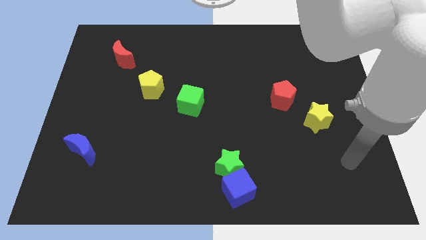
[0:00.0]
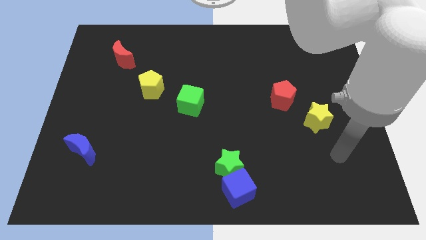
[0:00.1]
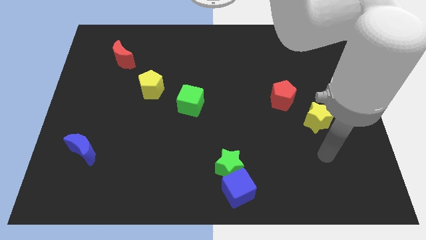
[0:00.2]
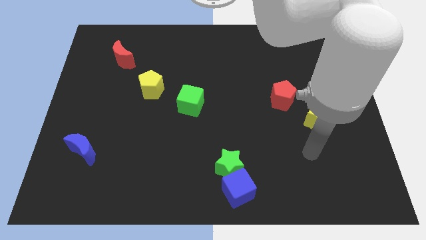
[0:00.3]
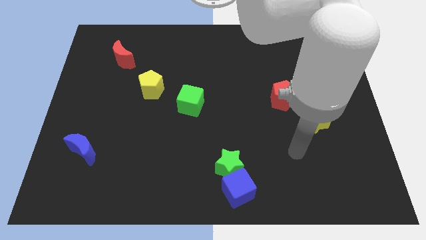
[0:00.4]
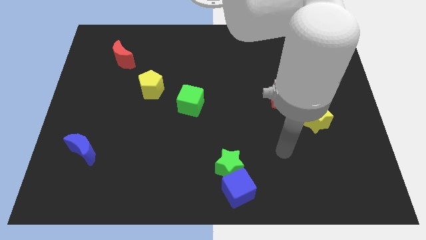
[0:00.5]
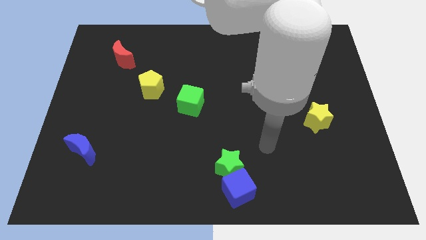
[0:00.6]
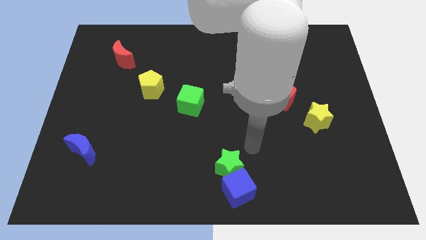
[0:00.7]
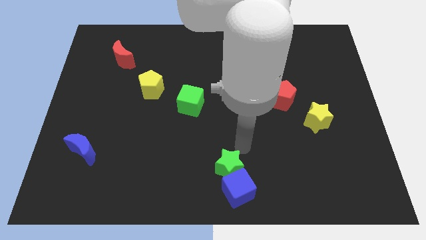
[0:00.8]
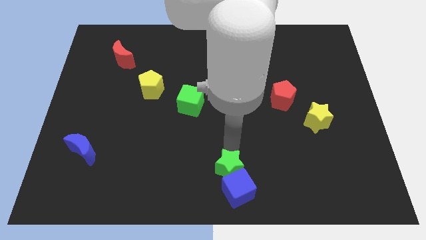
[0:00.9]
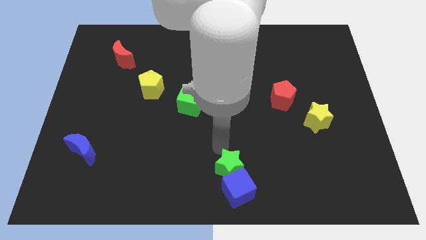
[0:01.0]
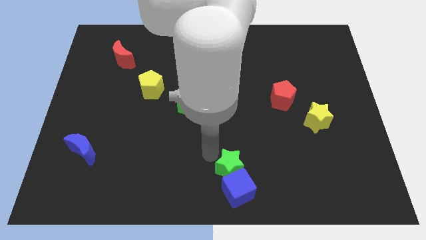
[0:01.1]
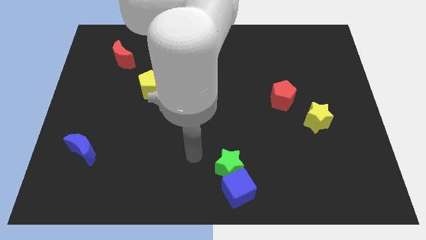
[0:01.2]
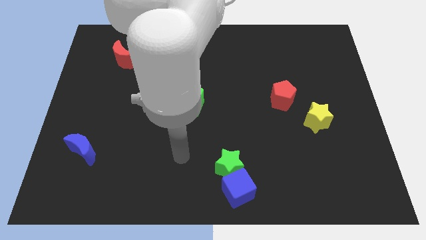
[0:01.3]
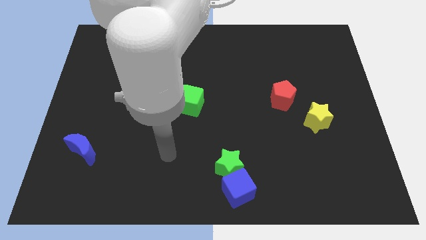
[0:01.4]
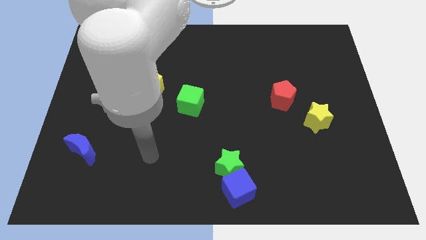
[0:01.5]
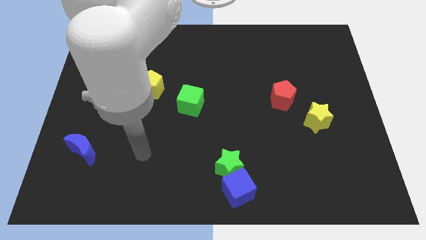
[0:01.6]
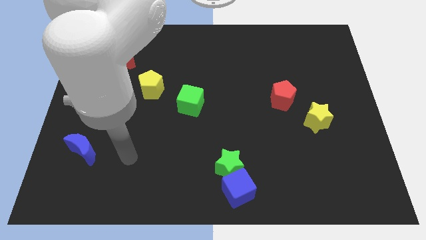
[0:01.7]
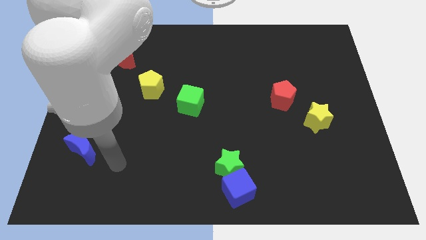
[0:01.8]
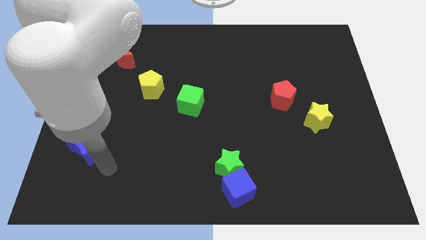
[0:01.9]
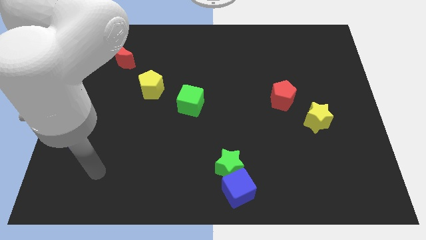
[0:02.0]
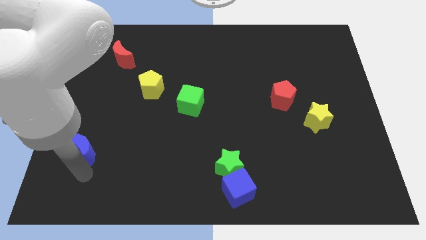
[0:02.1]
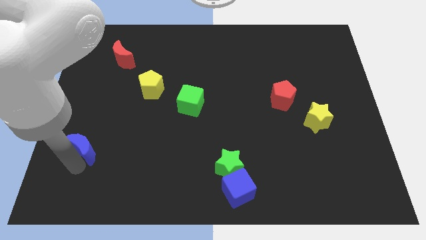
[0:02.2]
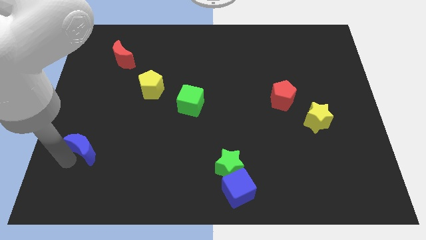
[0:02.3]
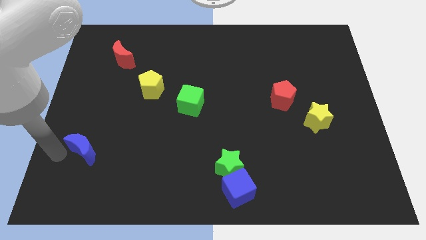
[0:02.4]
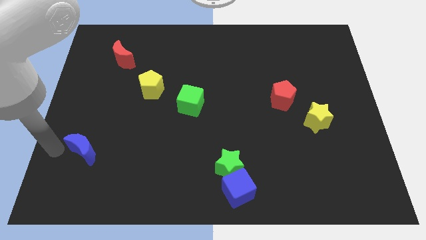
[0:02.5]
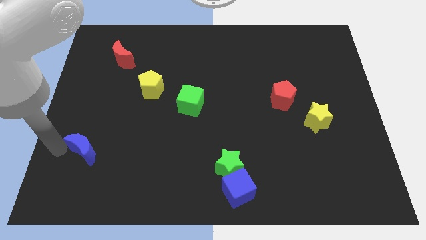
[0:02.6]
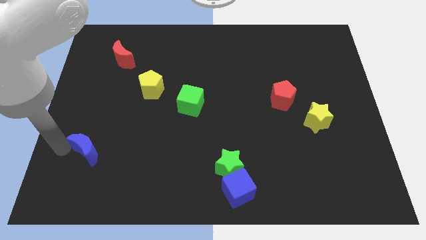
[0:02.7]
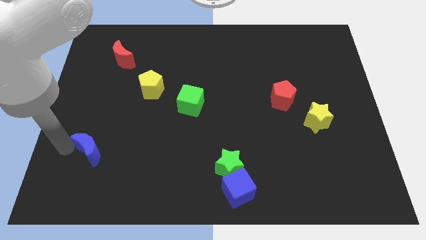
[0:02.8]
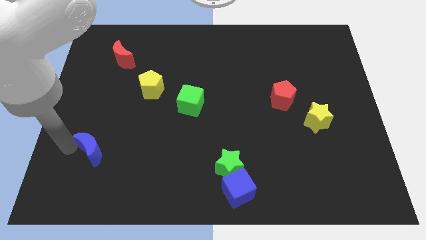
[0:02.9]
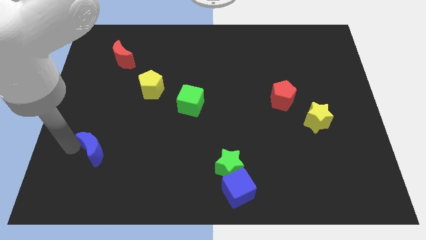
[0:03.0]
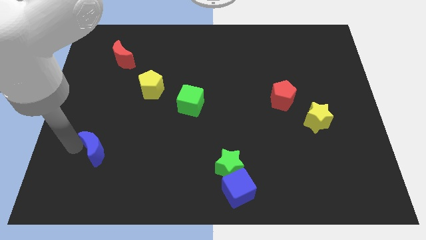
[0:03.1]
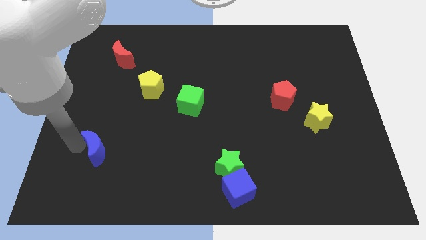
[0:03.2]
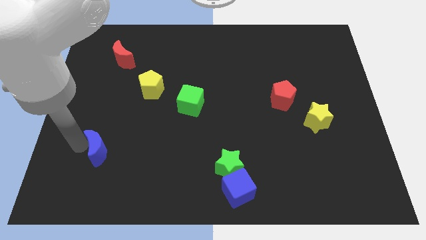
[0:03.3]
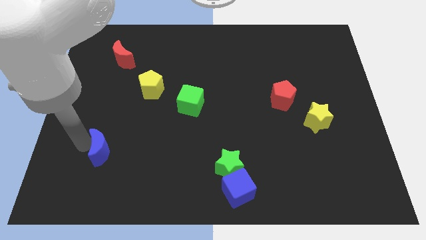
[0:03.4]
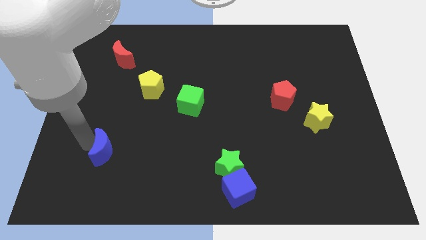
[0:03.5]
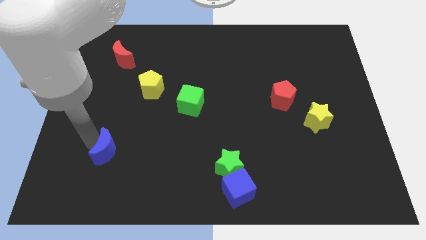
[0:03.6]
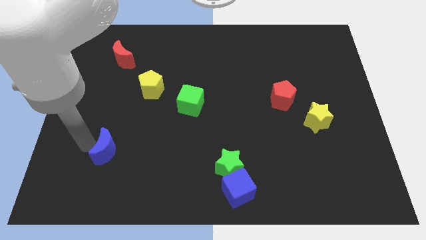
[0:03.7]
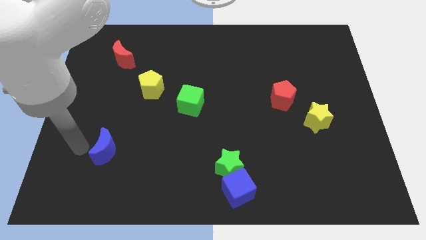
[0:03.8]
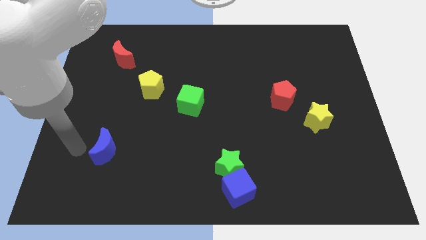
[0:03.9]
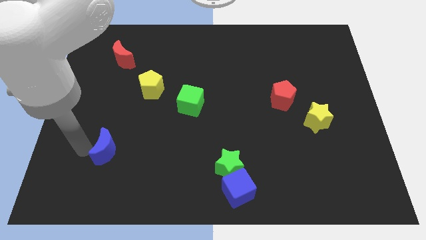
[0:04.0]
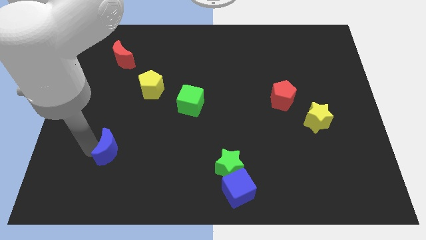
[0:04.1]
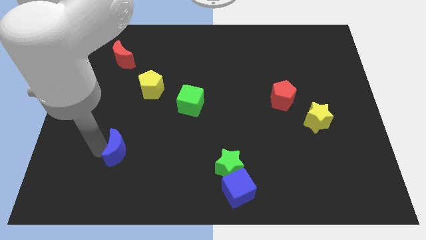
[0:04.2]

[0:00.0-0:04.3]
push the blue moon somewhat to the right

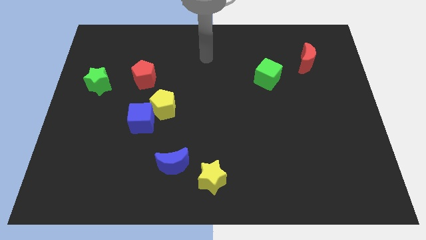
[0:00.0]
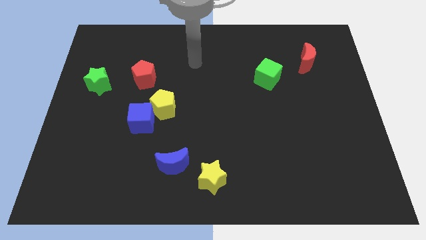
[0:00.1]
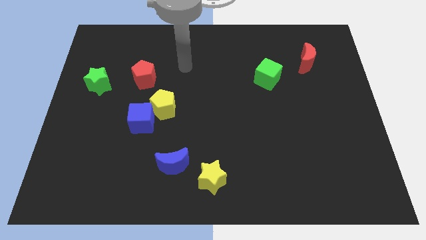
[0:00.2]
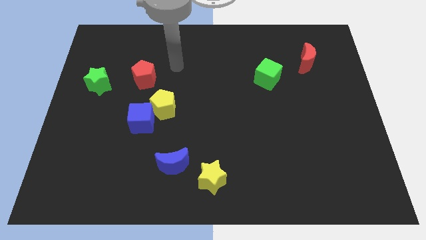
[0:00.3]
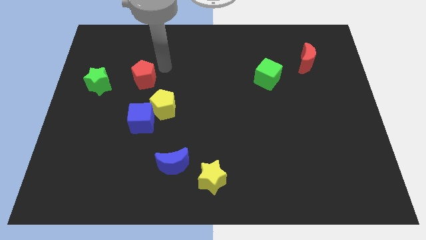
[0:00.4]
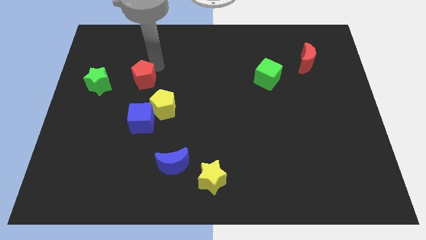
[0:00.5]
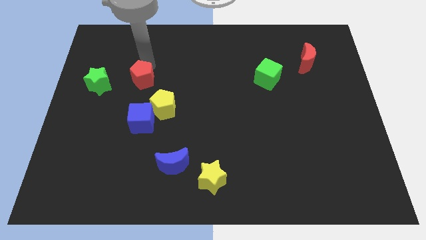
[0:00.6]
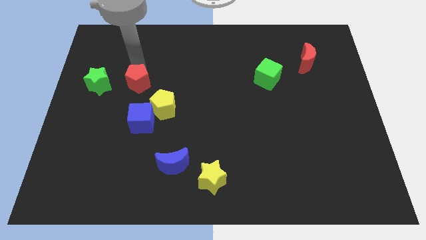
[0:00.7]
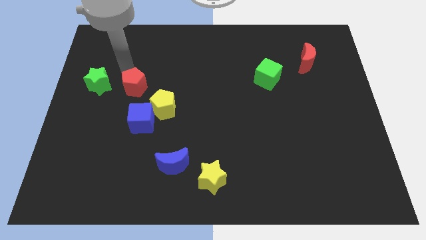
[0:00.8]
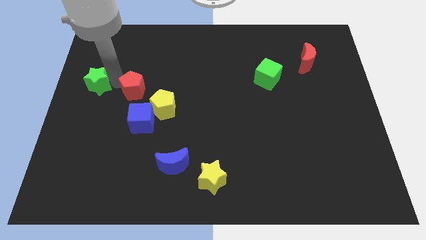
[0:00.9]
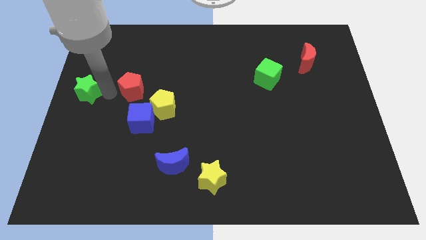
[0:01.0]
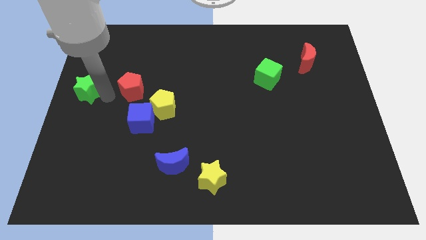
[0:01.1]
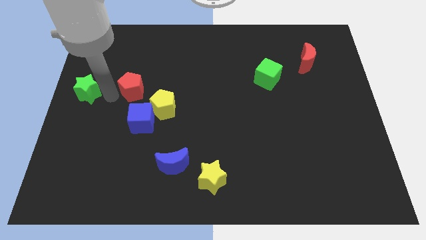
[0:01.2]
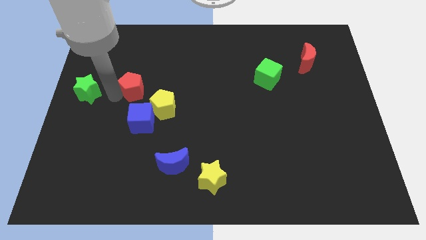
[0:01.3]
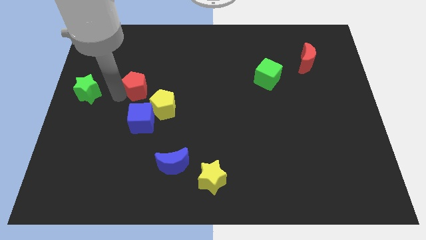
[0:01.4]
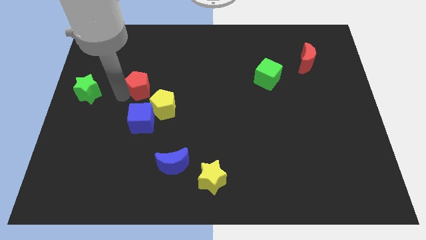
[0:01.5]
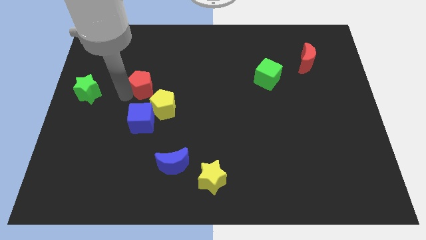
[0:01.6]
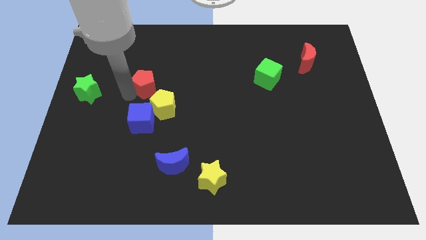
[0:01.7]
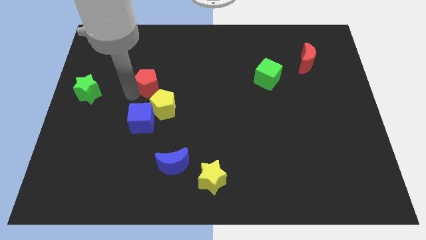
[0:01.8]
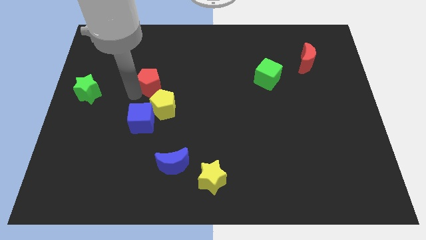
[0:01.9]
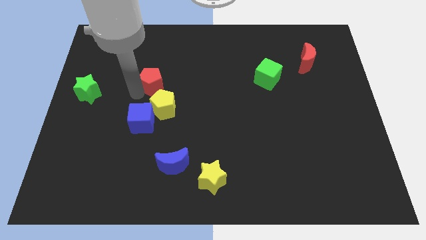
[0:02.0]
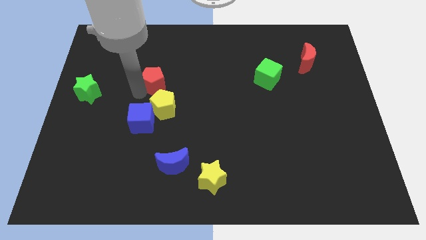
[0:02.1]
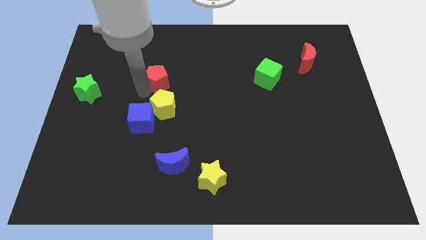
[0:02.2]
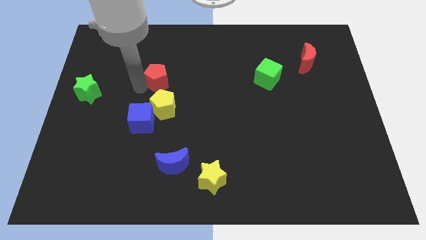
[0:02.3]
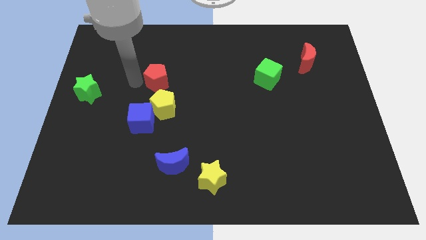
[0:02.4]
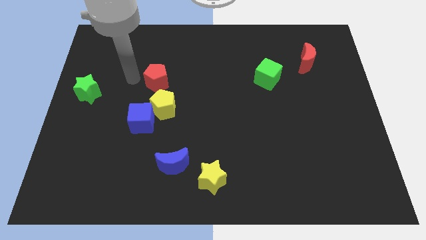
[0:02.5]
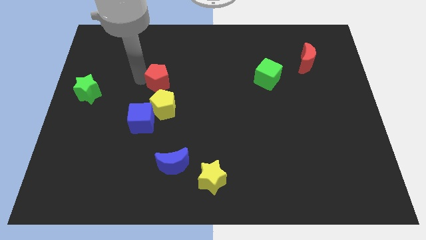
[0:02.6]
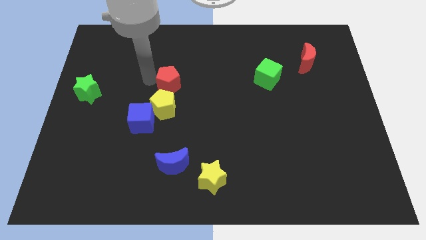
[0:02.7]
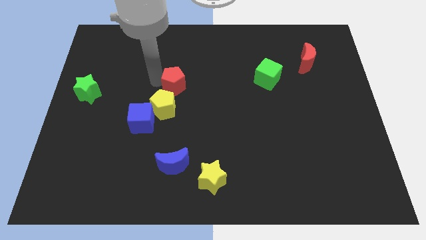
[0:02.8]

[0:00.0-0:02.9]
push the red pentagon slightly to the right

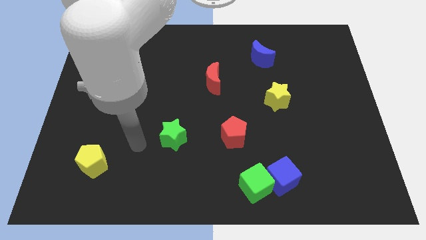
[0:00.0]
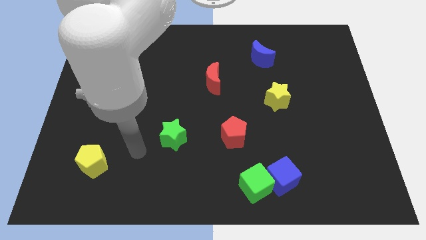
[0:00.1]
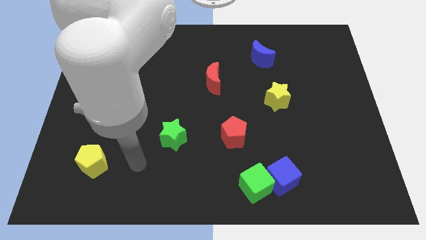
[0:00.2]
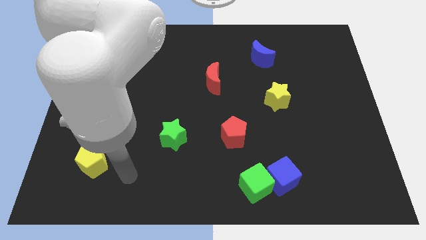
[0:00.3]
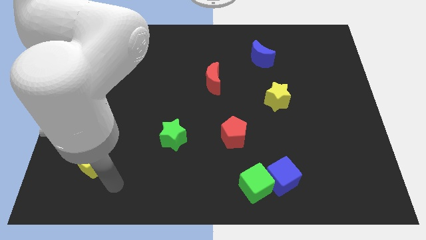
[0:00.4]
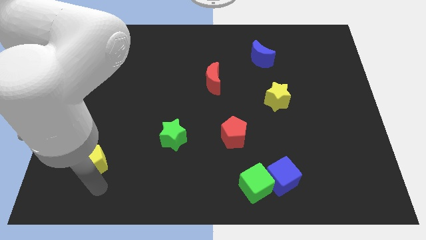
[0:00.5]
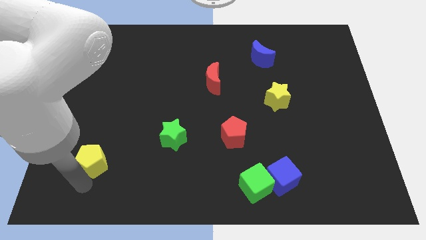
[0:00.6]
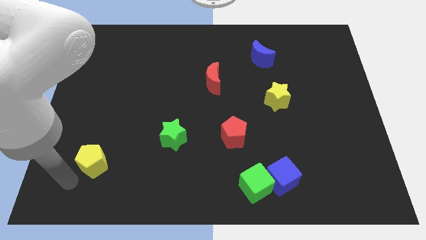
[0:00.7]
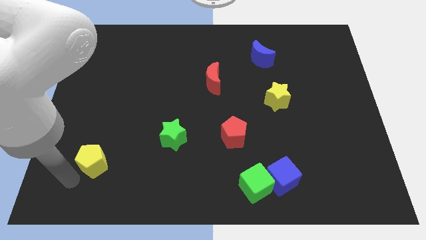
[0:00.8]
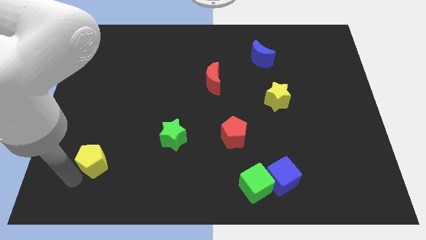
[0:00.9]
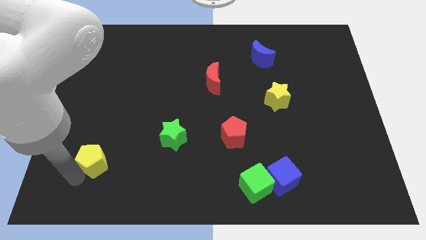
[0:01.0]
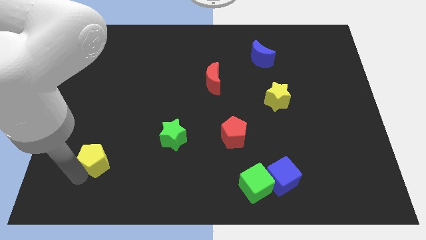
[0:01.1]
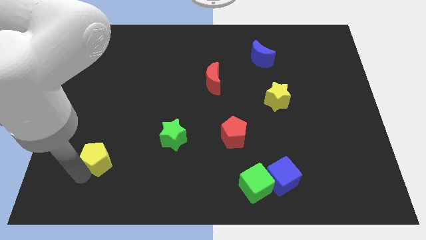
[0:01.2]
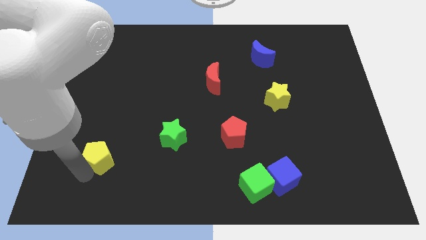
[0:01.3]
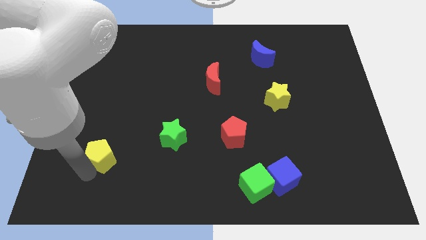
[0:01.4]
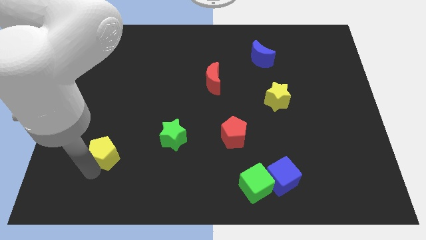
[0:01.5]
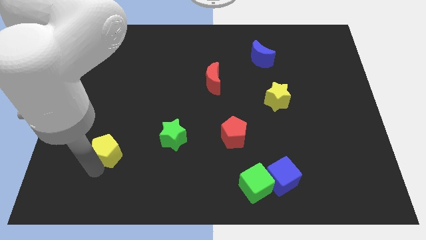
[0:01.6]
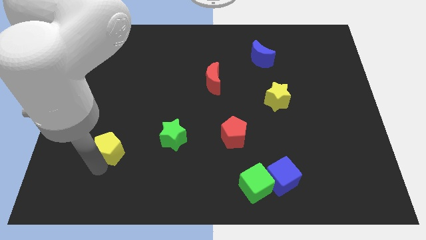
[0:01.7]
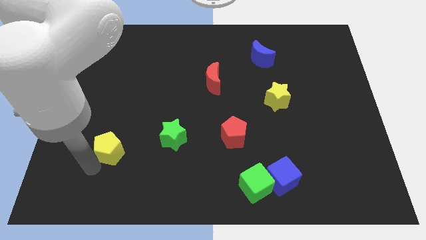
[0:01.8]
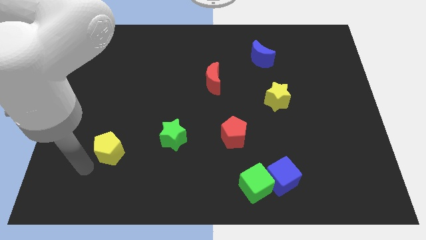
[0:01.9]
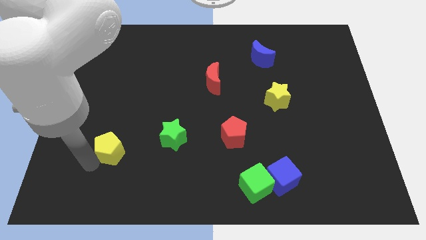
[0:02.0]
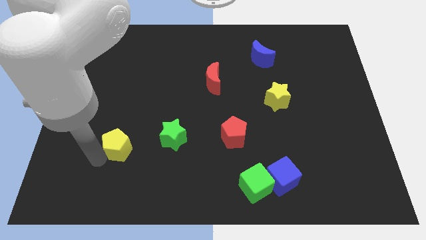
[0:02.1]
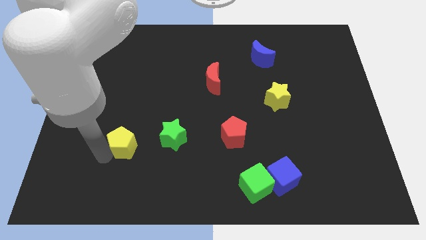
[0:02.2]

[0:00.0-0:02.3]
slide the yellow pentagon somewhat upwards and then right
